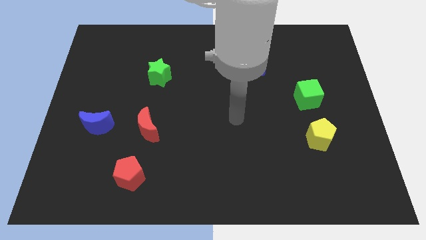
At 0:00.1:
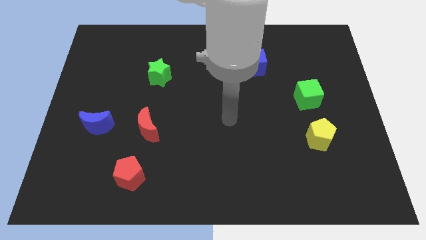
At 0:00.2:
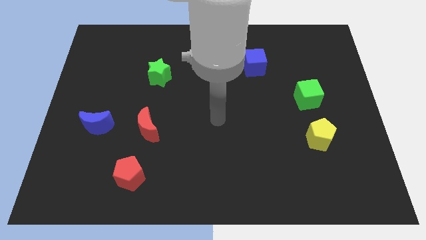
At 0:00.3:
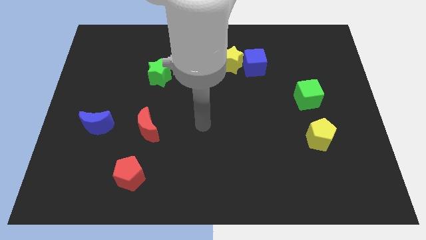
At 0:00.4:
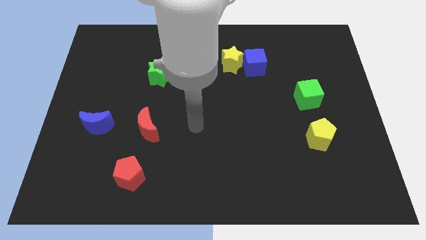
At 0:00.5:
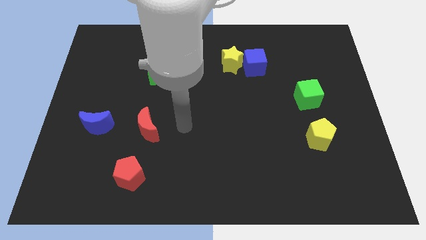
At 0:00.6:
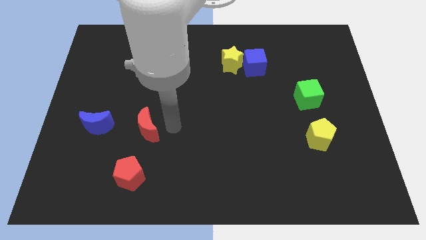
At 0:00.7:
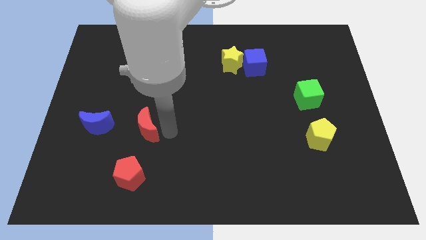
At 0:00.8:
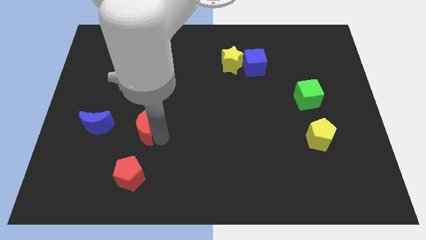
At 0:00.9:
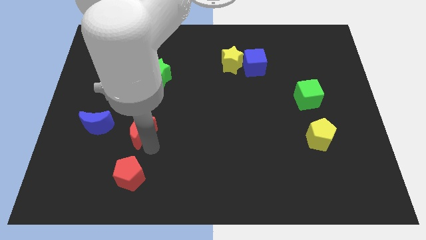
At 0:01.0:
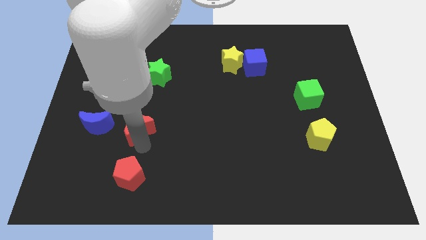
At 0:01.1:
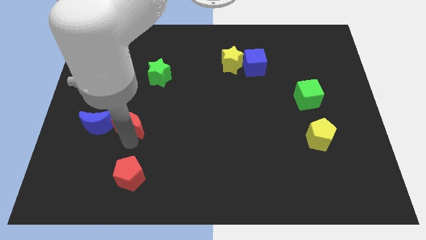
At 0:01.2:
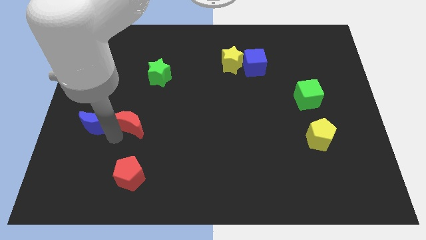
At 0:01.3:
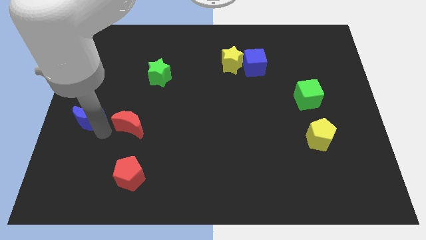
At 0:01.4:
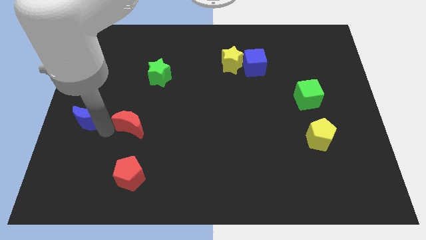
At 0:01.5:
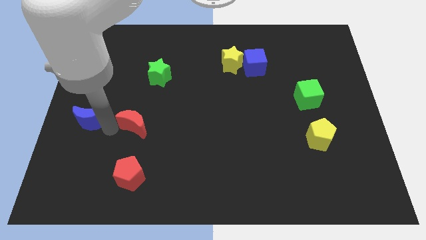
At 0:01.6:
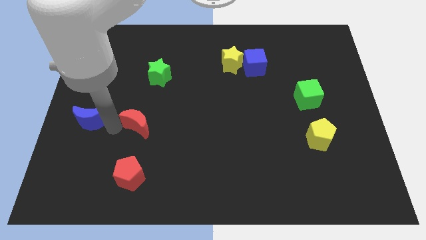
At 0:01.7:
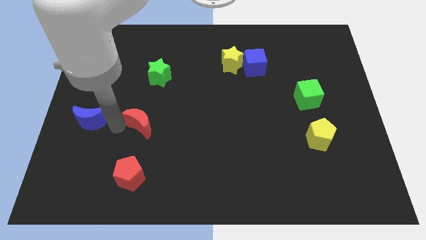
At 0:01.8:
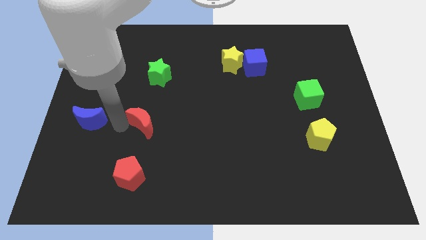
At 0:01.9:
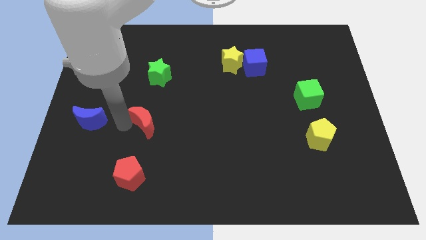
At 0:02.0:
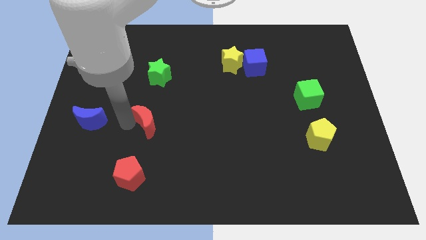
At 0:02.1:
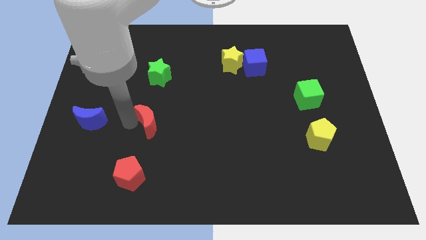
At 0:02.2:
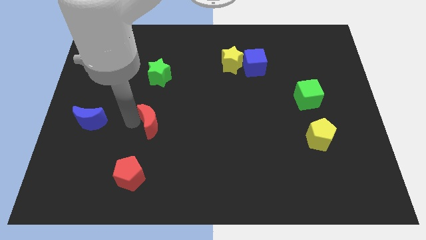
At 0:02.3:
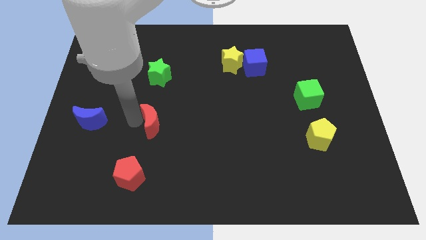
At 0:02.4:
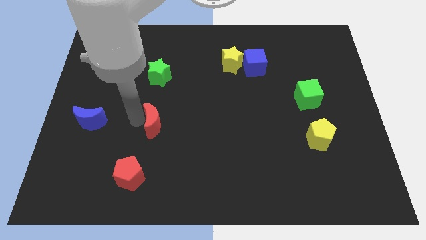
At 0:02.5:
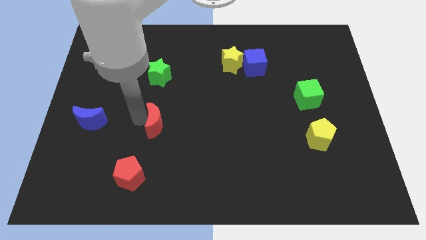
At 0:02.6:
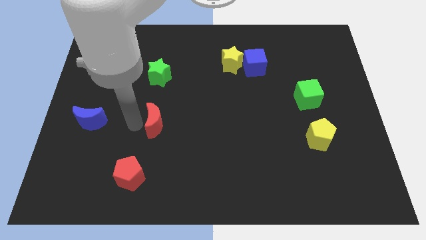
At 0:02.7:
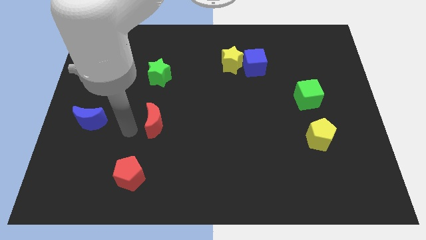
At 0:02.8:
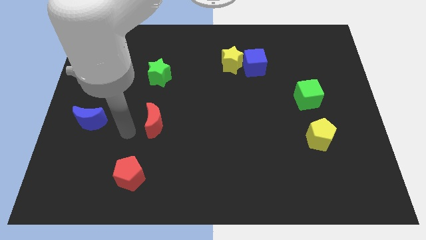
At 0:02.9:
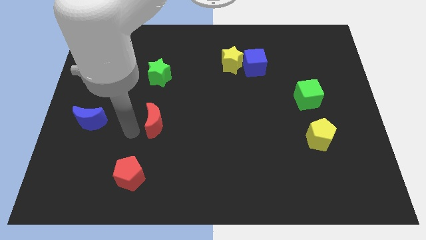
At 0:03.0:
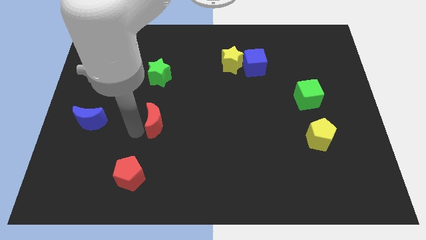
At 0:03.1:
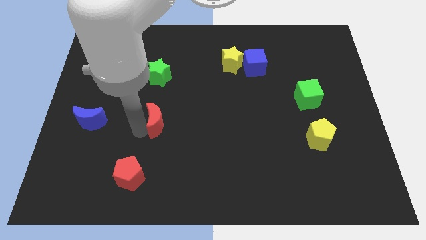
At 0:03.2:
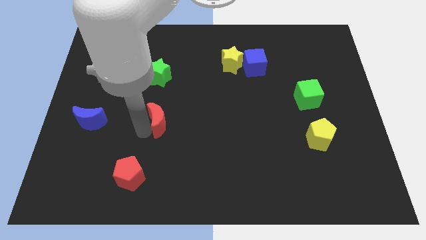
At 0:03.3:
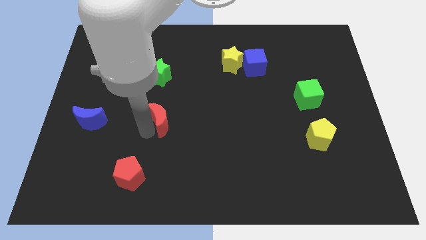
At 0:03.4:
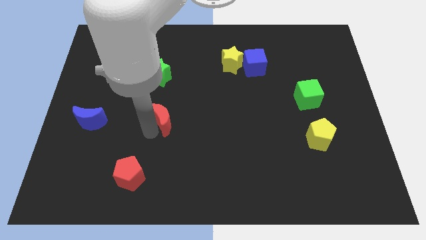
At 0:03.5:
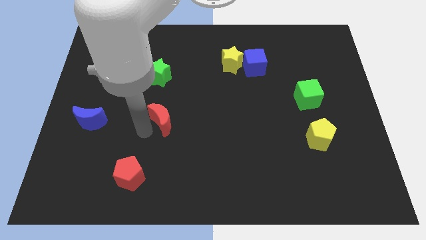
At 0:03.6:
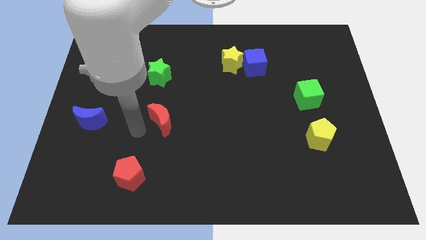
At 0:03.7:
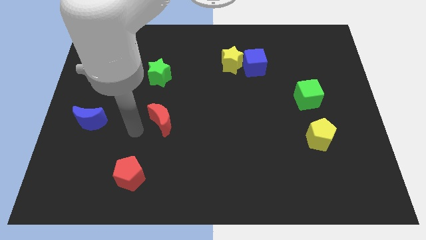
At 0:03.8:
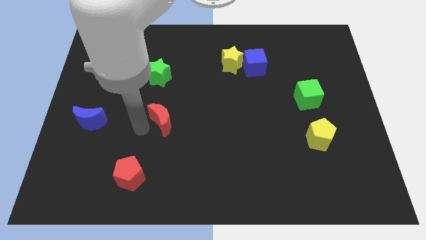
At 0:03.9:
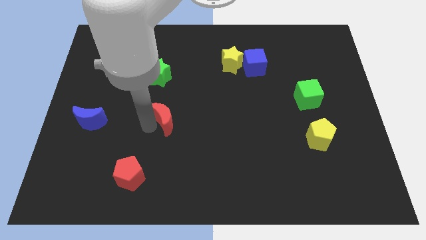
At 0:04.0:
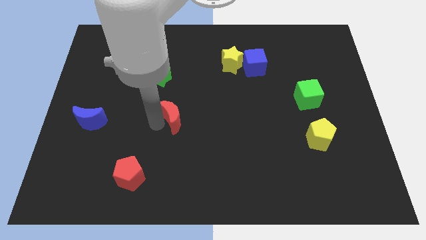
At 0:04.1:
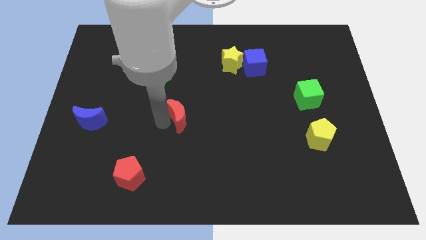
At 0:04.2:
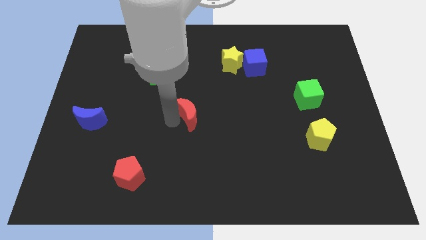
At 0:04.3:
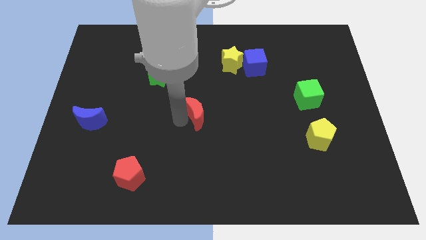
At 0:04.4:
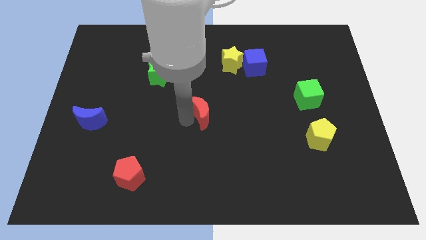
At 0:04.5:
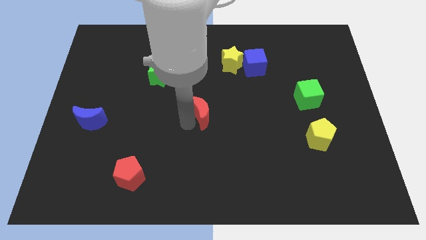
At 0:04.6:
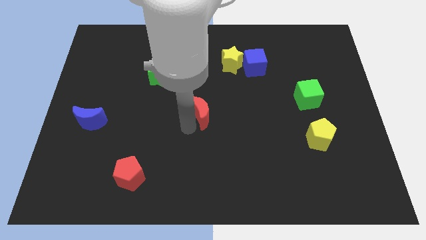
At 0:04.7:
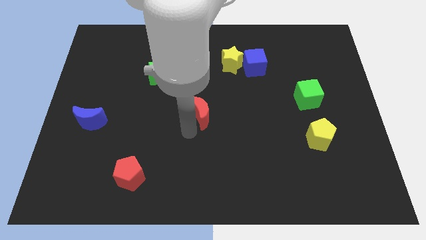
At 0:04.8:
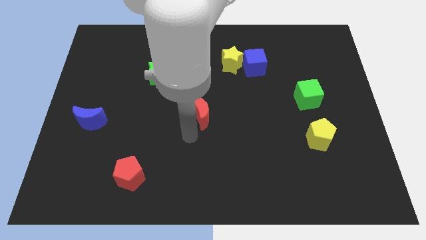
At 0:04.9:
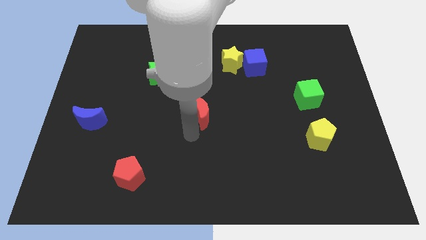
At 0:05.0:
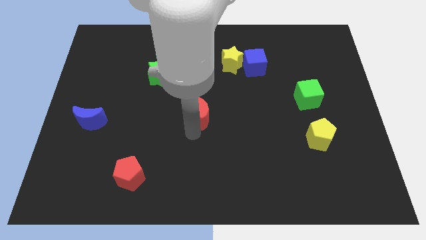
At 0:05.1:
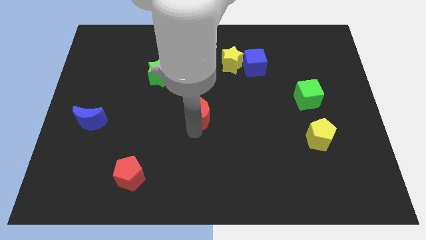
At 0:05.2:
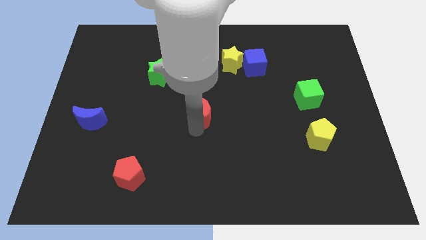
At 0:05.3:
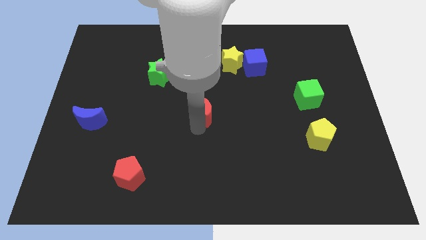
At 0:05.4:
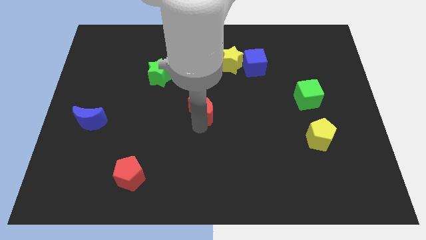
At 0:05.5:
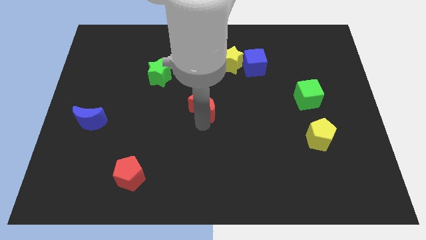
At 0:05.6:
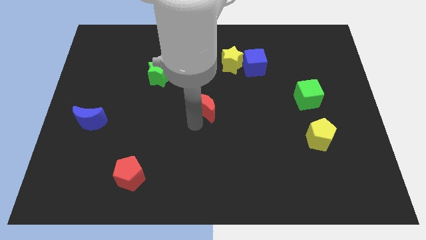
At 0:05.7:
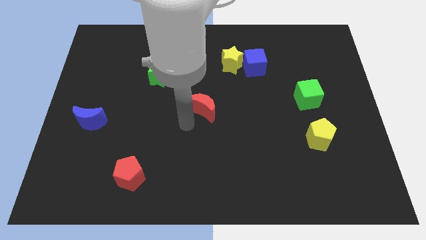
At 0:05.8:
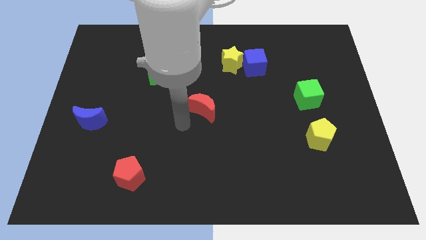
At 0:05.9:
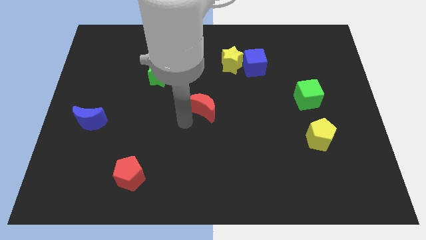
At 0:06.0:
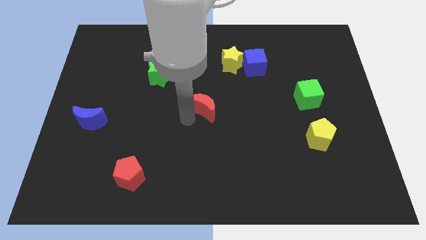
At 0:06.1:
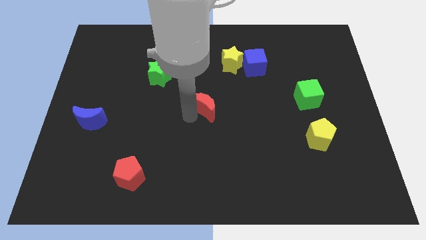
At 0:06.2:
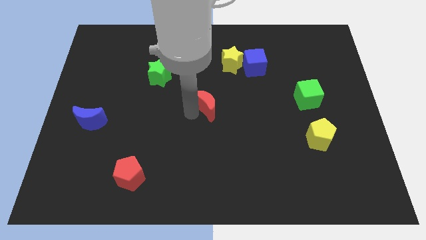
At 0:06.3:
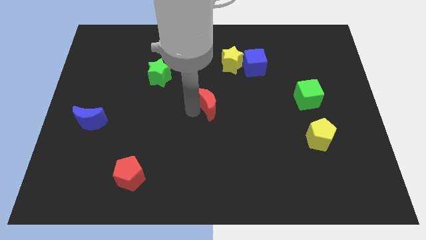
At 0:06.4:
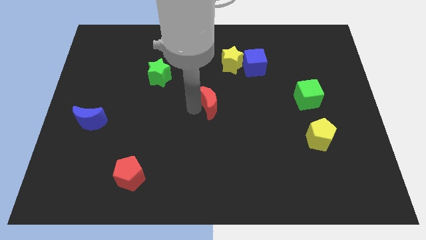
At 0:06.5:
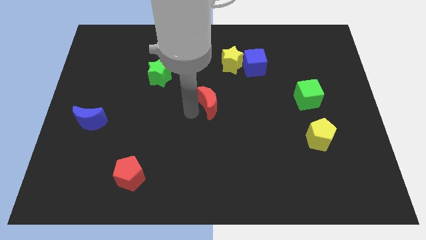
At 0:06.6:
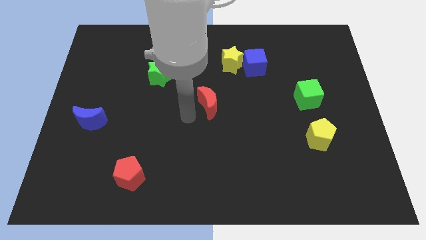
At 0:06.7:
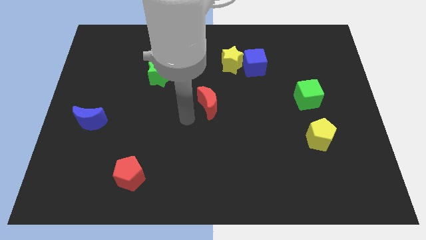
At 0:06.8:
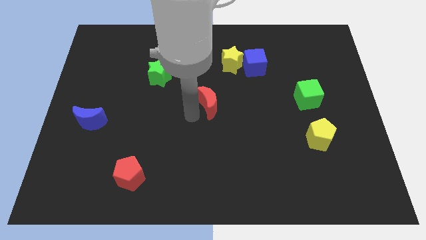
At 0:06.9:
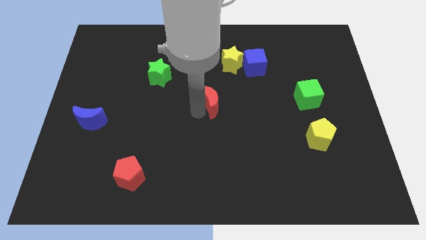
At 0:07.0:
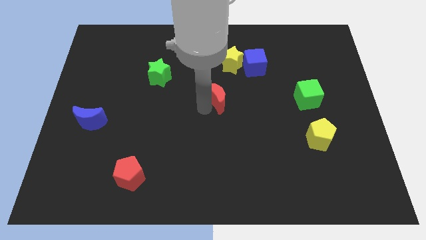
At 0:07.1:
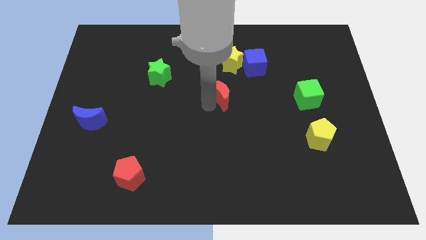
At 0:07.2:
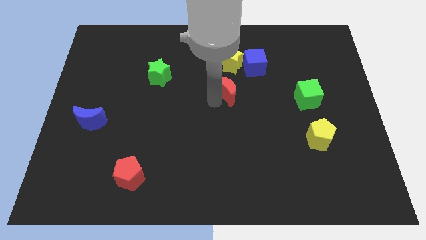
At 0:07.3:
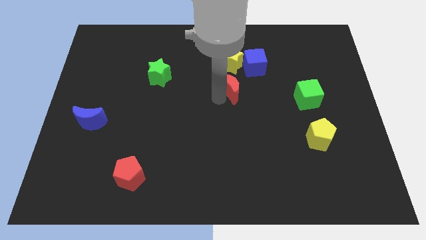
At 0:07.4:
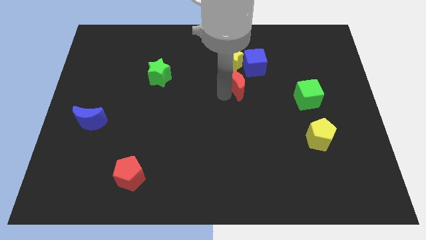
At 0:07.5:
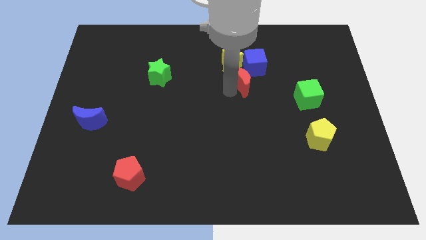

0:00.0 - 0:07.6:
move the red moon to the bottom right side of the yellow star
